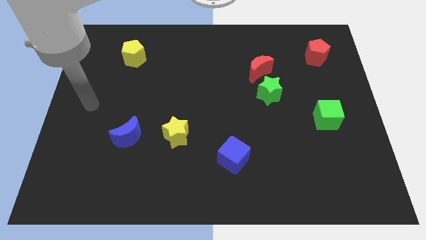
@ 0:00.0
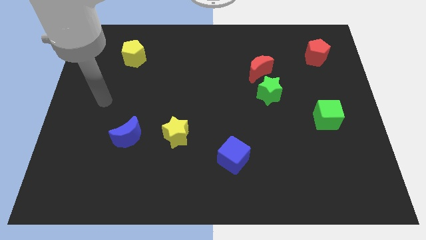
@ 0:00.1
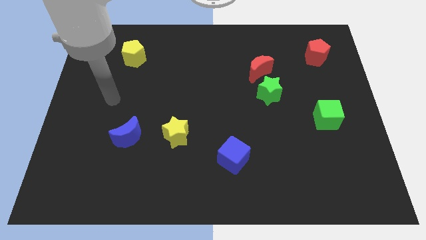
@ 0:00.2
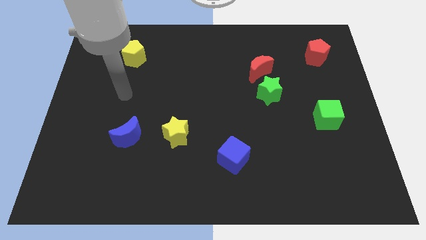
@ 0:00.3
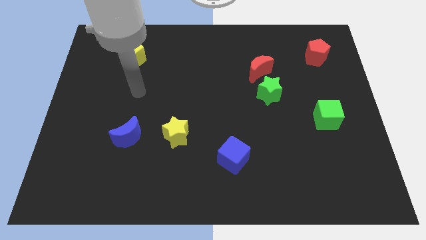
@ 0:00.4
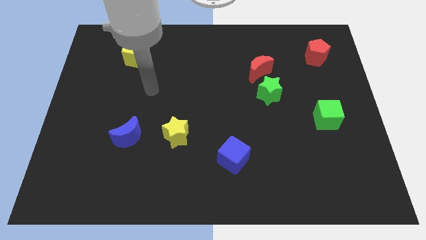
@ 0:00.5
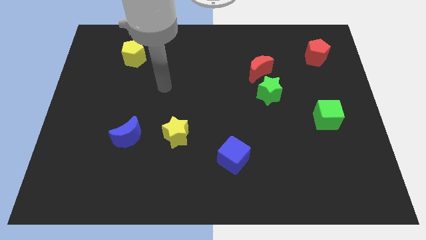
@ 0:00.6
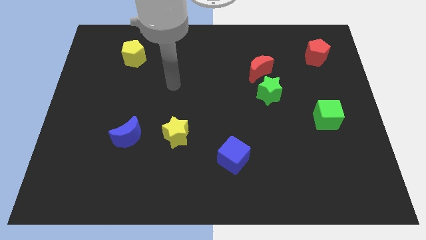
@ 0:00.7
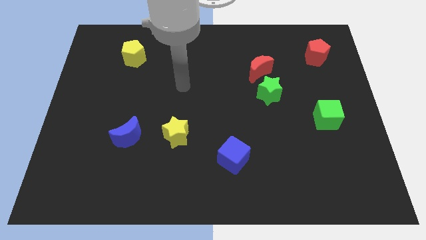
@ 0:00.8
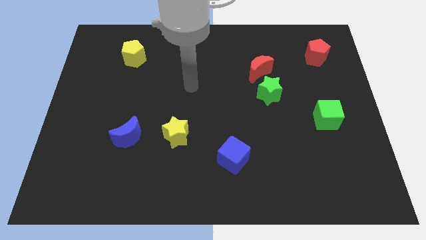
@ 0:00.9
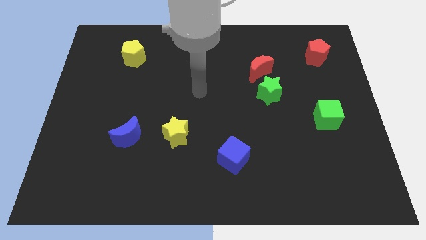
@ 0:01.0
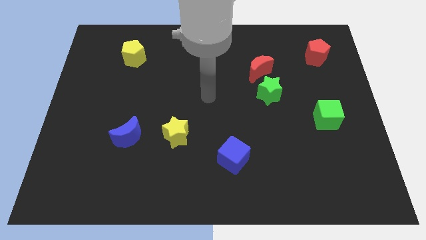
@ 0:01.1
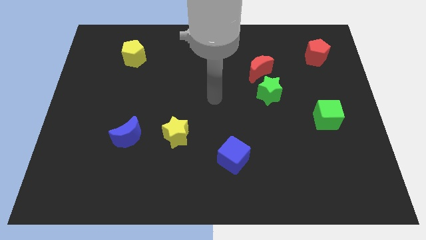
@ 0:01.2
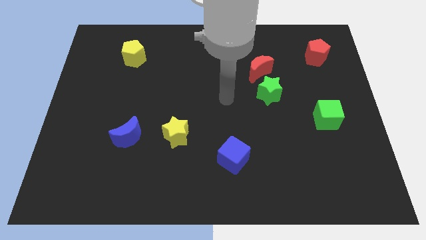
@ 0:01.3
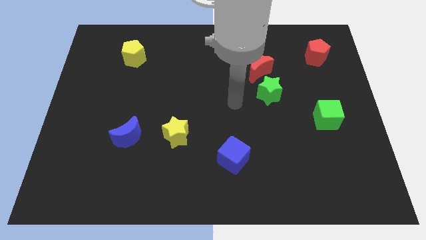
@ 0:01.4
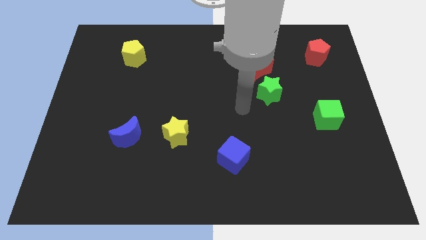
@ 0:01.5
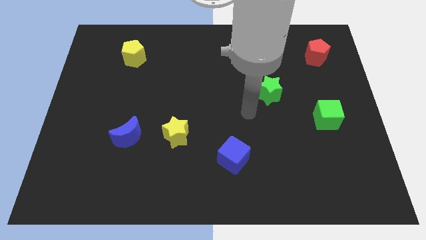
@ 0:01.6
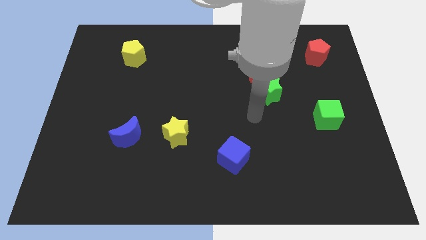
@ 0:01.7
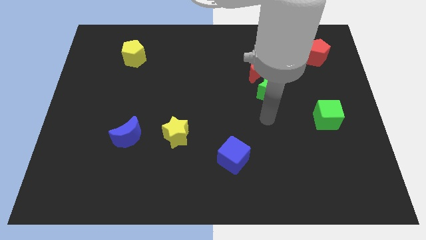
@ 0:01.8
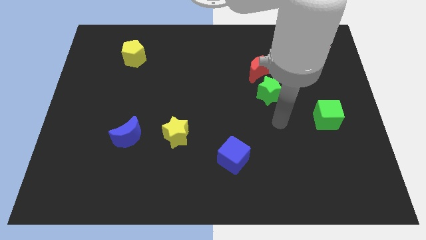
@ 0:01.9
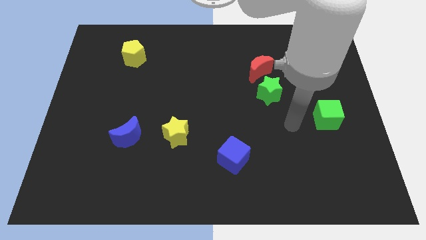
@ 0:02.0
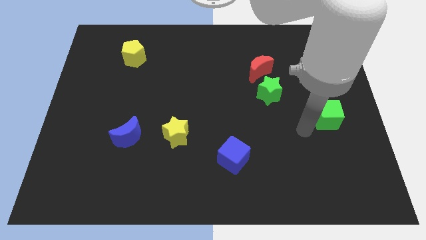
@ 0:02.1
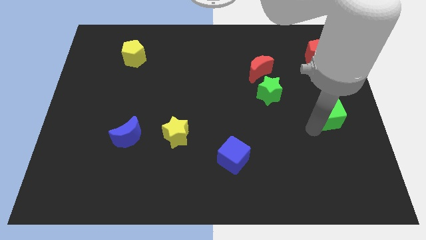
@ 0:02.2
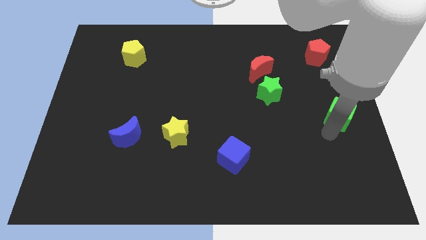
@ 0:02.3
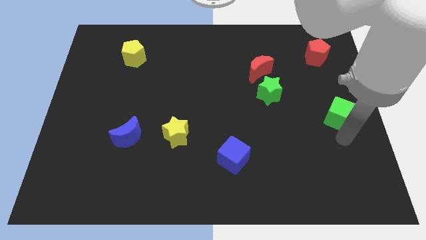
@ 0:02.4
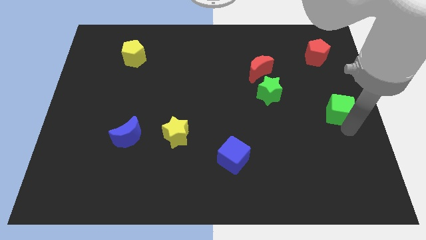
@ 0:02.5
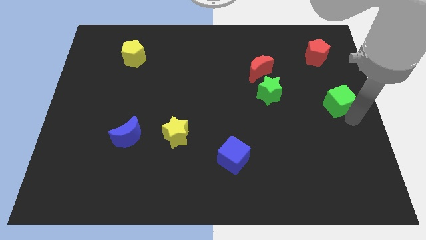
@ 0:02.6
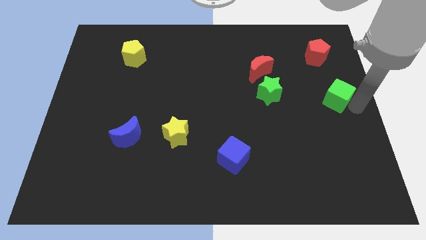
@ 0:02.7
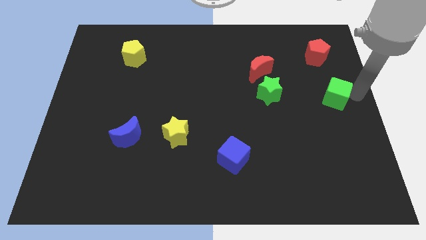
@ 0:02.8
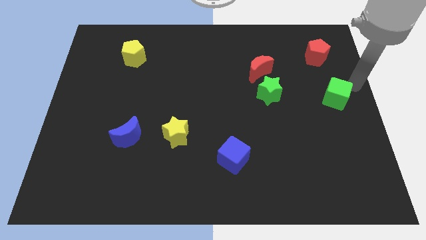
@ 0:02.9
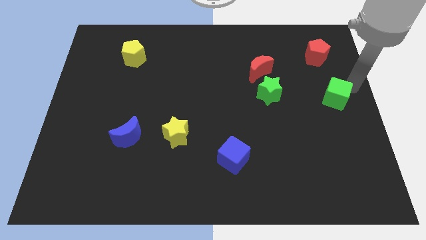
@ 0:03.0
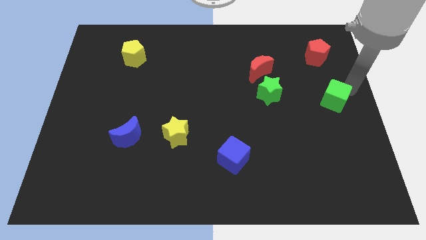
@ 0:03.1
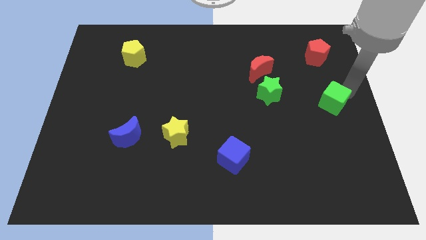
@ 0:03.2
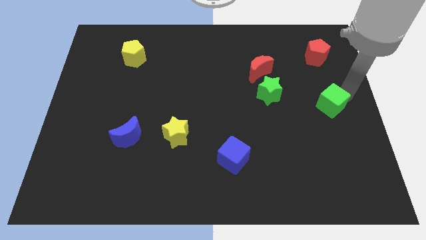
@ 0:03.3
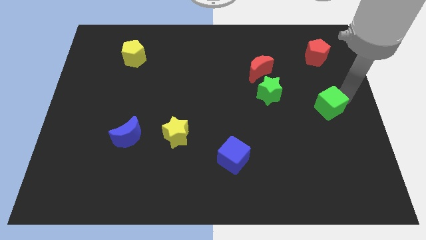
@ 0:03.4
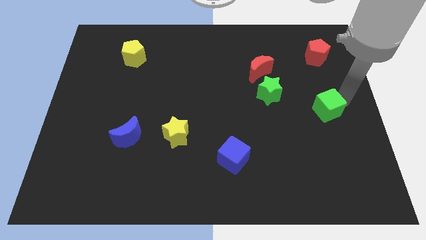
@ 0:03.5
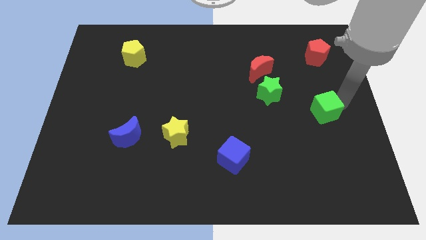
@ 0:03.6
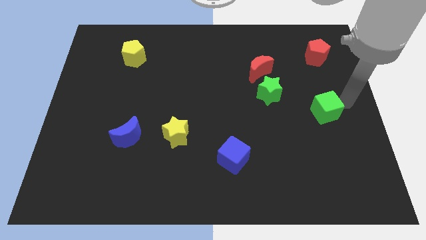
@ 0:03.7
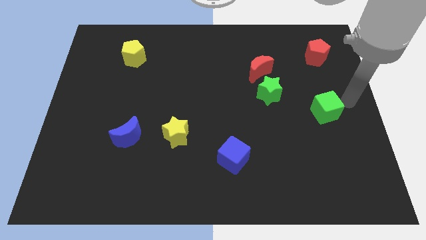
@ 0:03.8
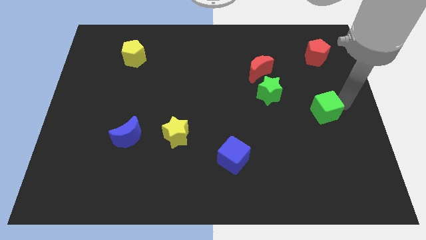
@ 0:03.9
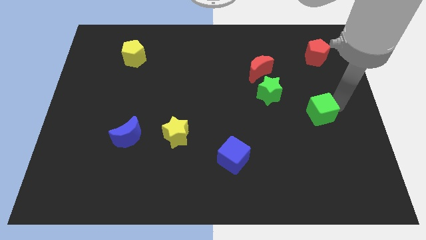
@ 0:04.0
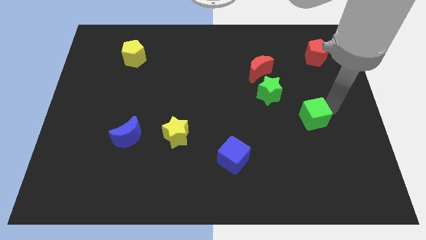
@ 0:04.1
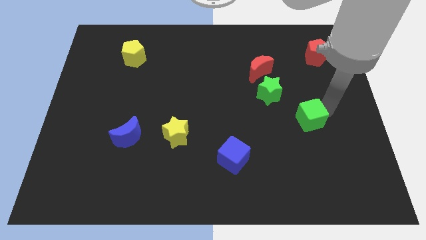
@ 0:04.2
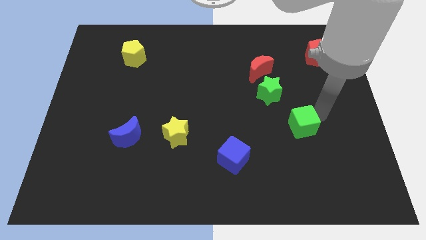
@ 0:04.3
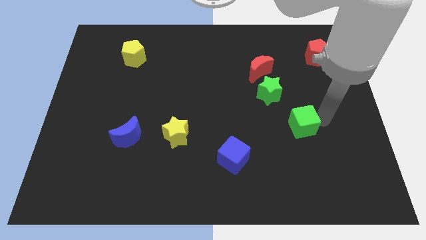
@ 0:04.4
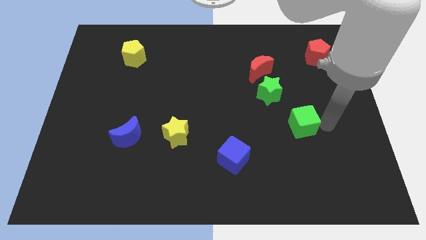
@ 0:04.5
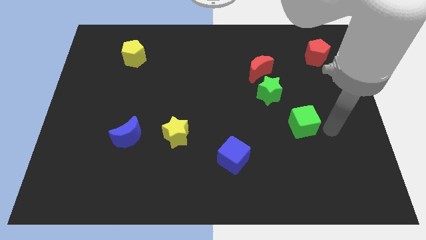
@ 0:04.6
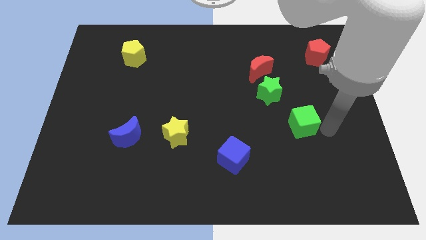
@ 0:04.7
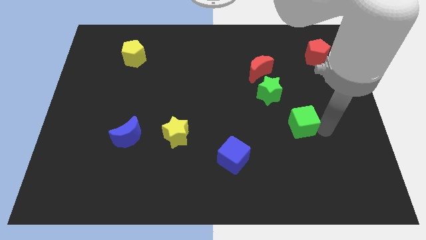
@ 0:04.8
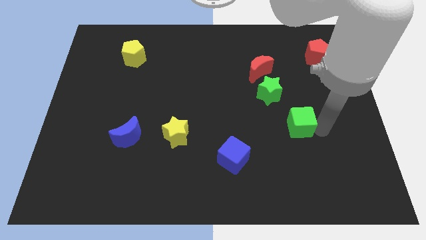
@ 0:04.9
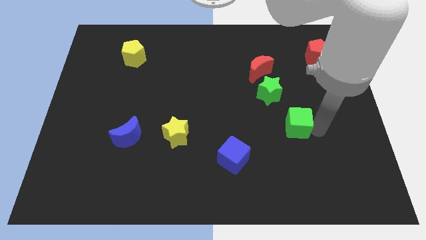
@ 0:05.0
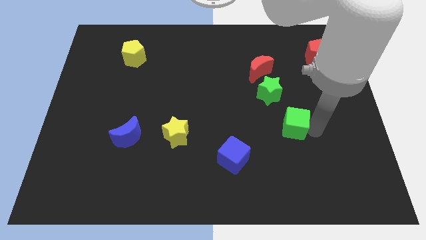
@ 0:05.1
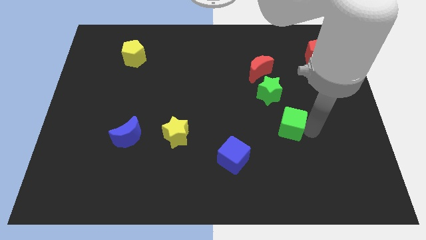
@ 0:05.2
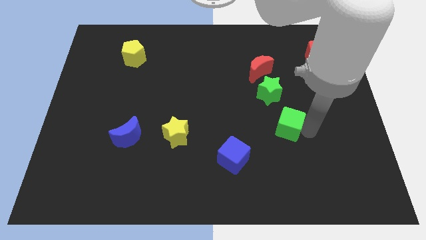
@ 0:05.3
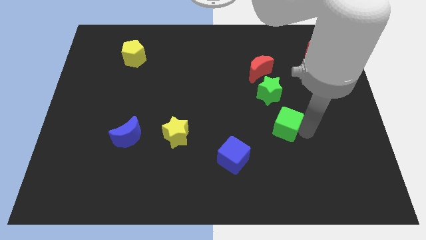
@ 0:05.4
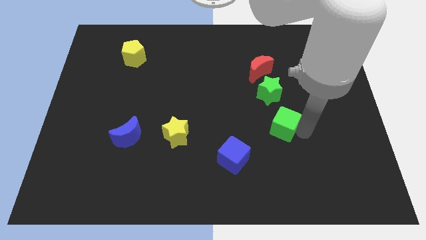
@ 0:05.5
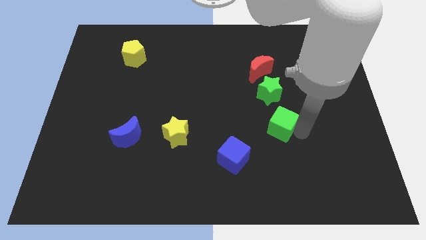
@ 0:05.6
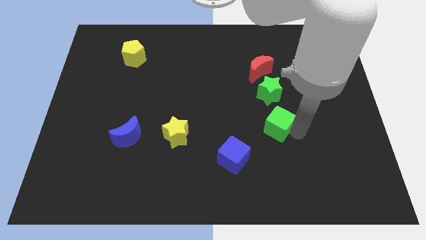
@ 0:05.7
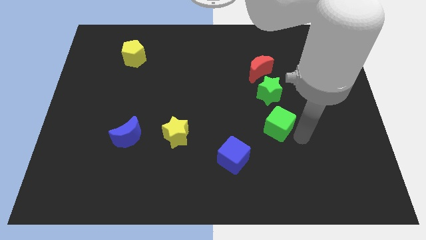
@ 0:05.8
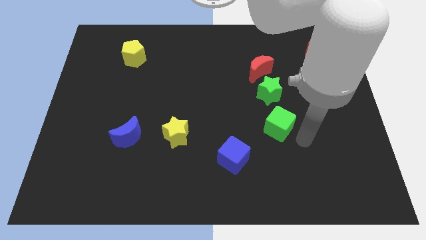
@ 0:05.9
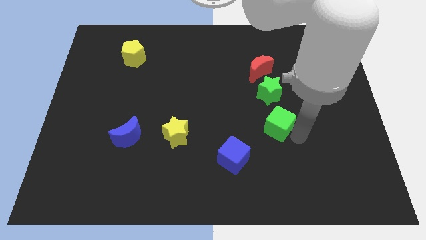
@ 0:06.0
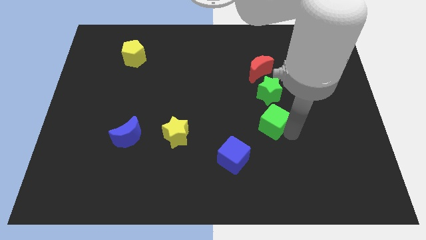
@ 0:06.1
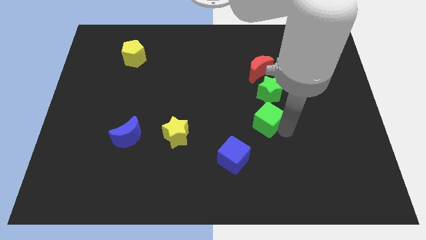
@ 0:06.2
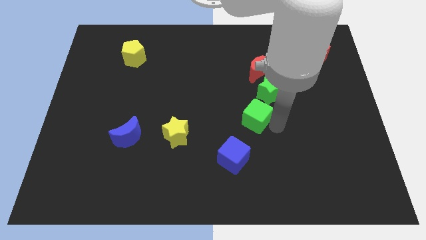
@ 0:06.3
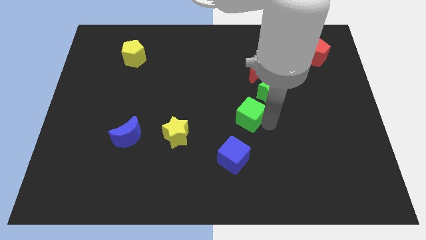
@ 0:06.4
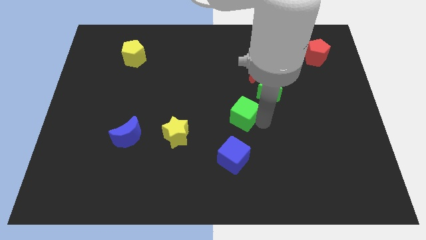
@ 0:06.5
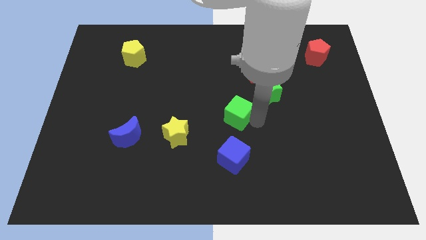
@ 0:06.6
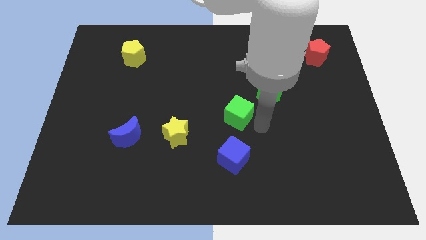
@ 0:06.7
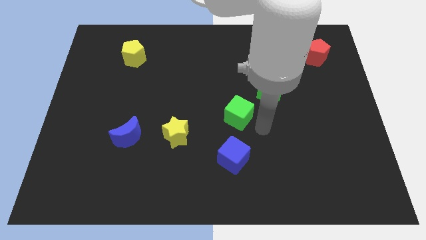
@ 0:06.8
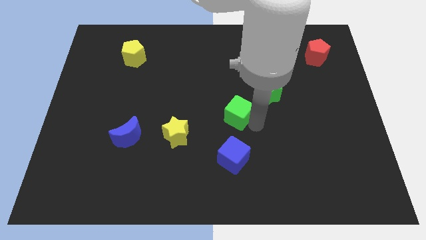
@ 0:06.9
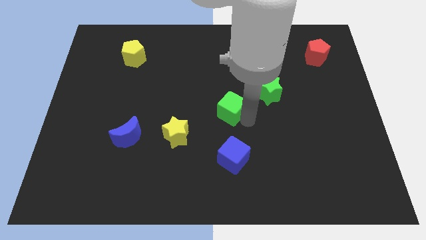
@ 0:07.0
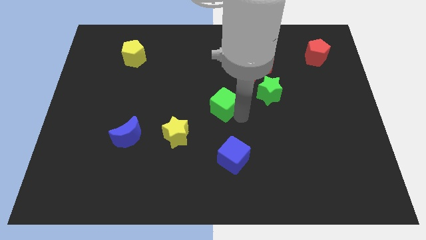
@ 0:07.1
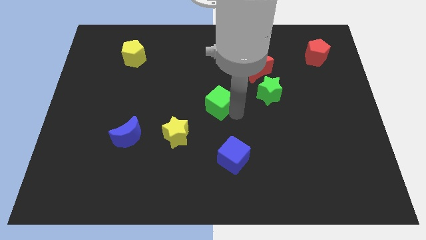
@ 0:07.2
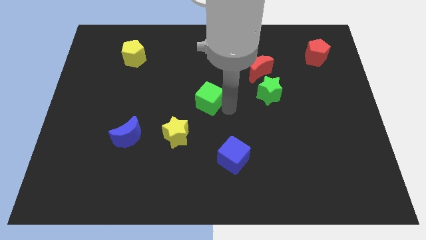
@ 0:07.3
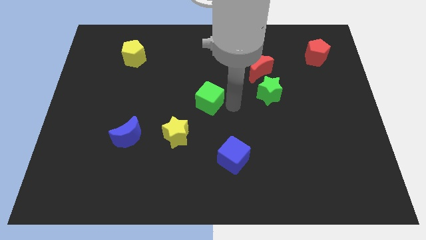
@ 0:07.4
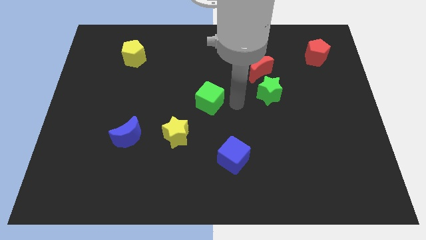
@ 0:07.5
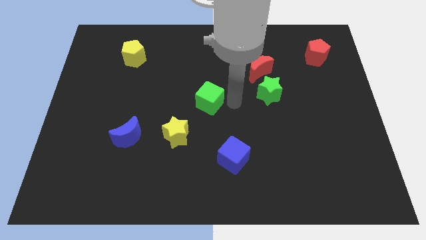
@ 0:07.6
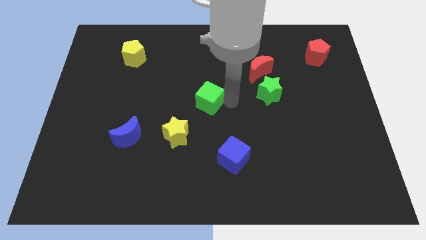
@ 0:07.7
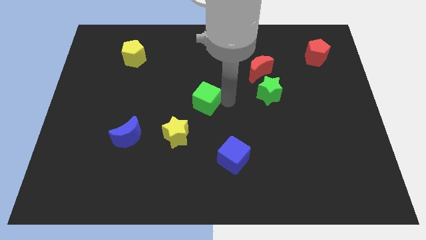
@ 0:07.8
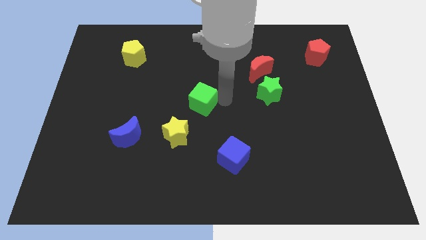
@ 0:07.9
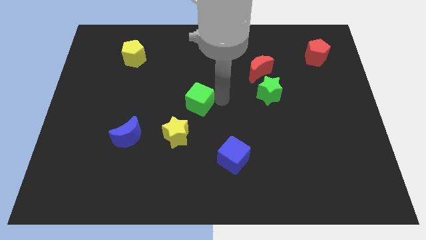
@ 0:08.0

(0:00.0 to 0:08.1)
put the green cube above the yellow star
